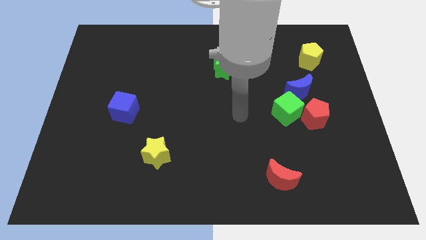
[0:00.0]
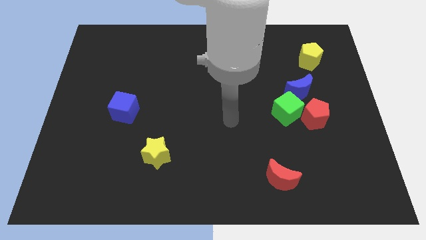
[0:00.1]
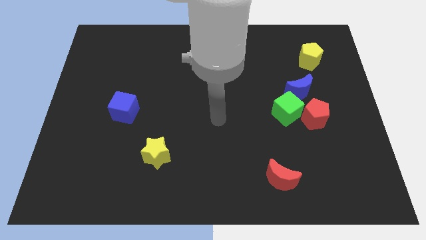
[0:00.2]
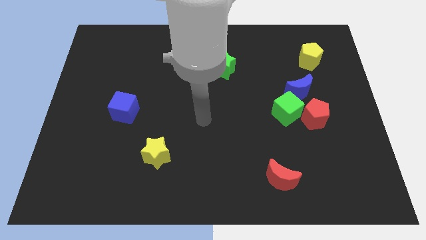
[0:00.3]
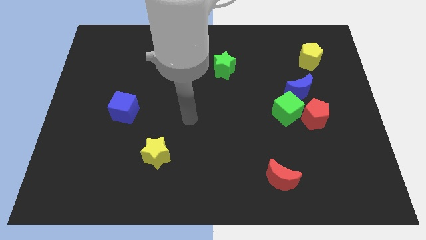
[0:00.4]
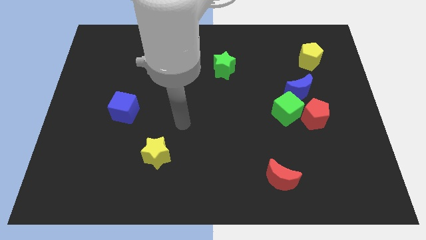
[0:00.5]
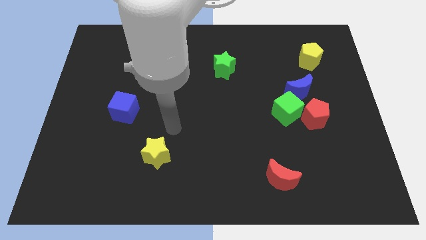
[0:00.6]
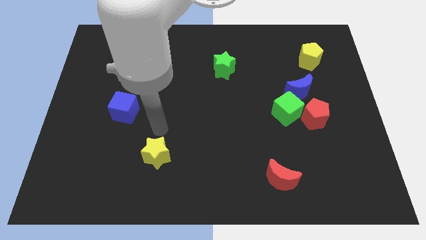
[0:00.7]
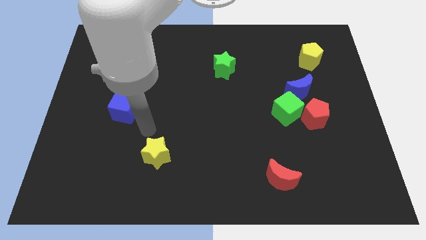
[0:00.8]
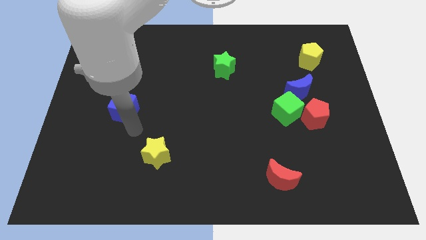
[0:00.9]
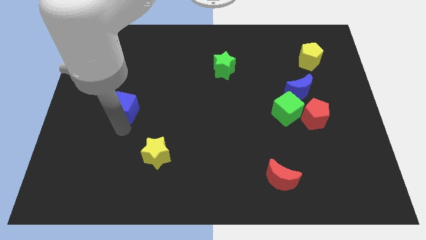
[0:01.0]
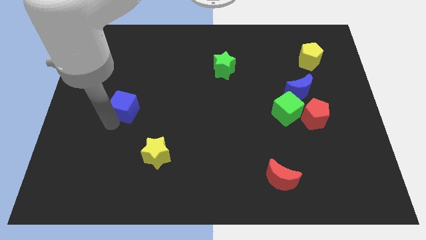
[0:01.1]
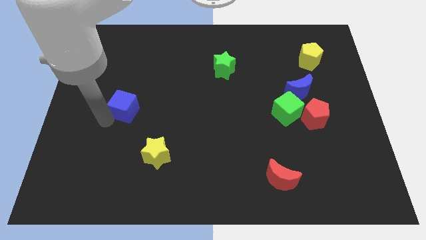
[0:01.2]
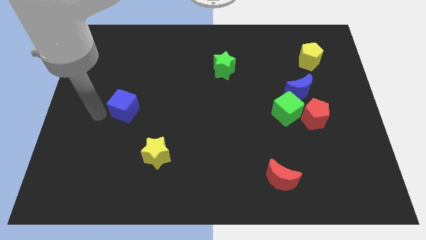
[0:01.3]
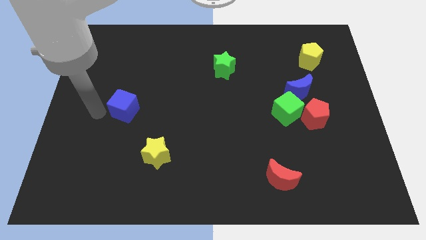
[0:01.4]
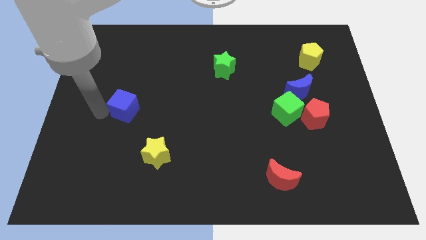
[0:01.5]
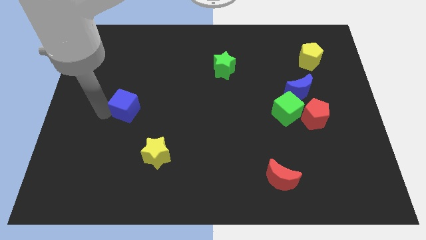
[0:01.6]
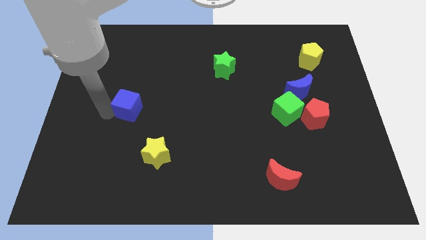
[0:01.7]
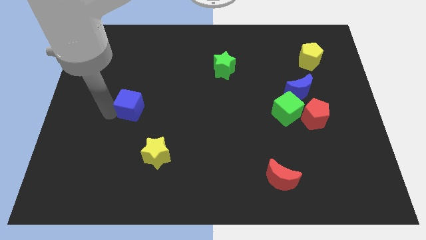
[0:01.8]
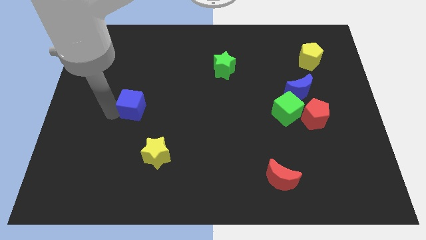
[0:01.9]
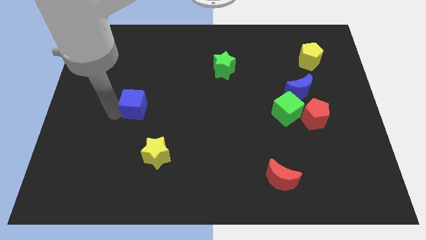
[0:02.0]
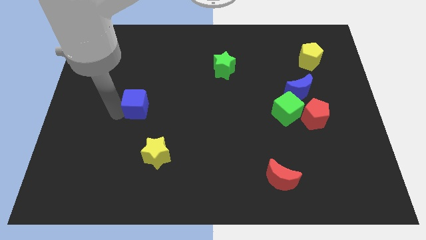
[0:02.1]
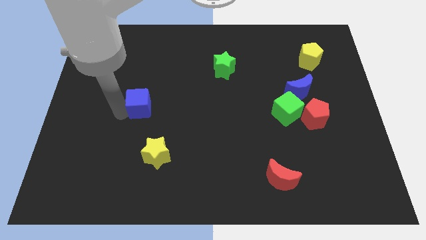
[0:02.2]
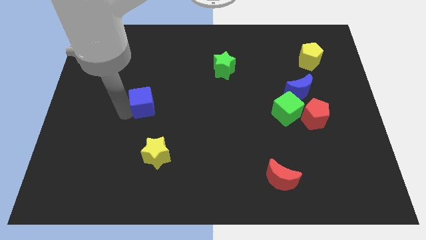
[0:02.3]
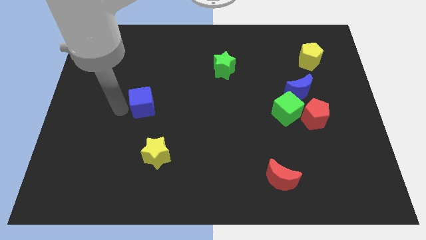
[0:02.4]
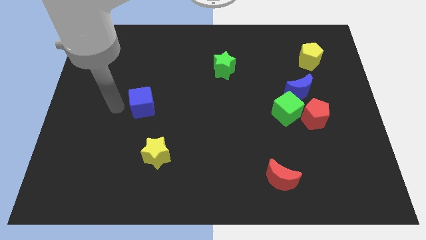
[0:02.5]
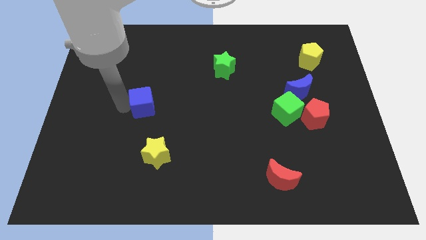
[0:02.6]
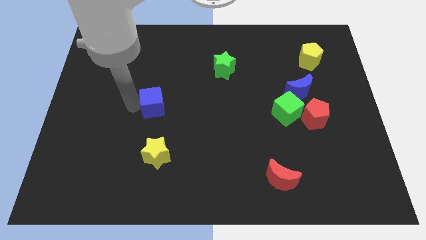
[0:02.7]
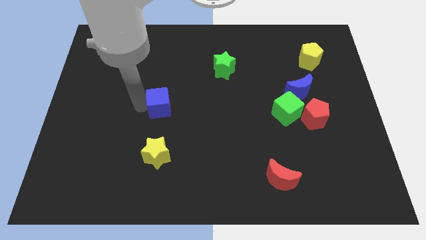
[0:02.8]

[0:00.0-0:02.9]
slide the blue cube to the right a little

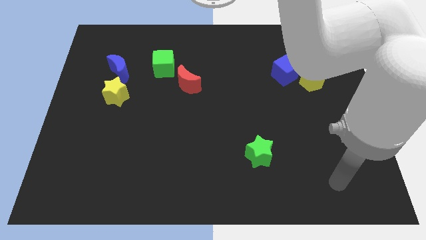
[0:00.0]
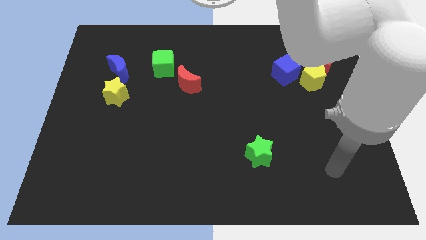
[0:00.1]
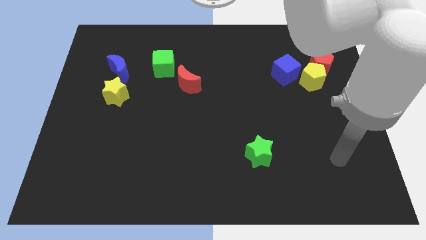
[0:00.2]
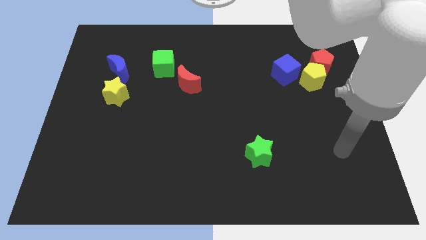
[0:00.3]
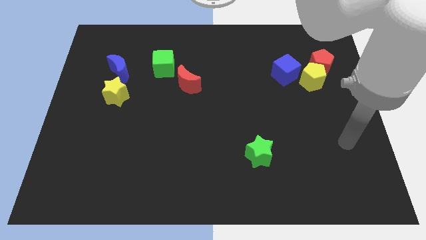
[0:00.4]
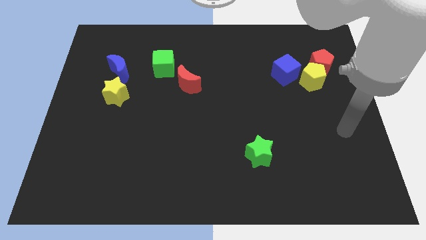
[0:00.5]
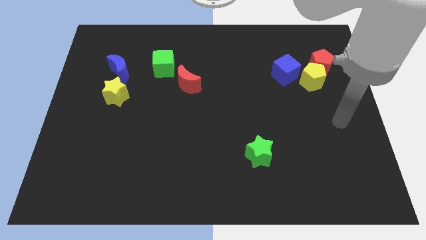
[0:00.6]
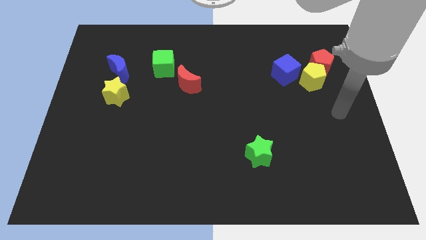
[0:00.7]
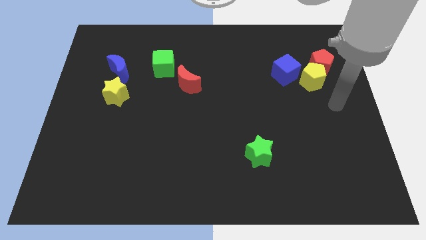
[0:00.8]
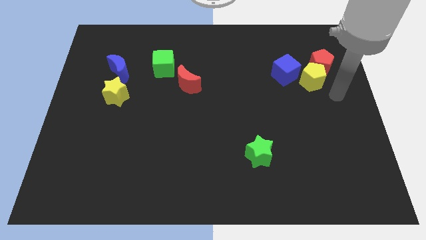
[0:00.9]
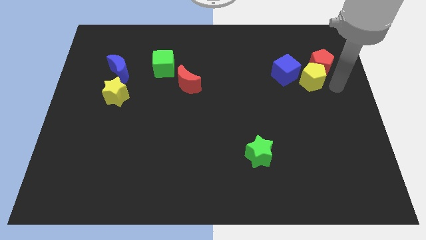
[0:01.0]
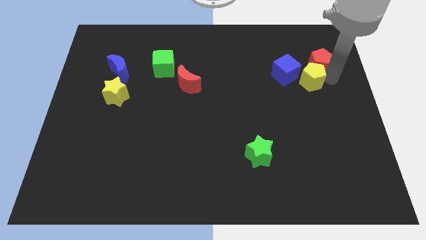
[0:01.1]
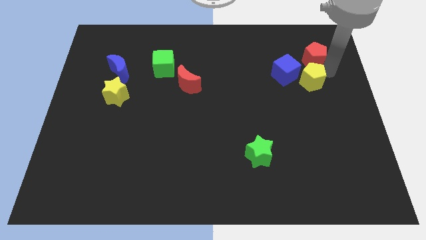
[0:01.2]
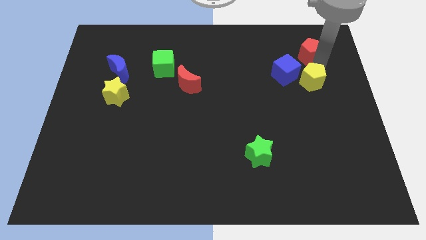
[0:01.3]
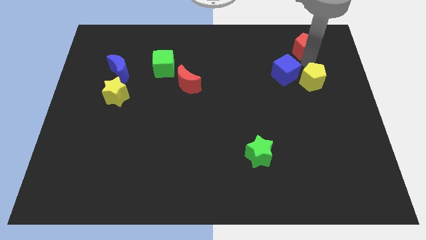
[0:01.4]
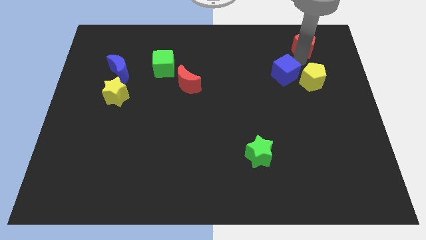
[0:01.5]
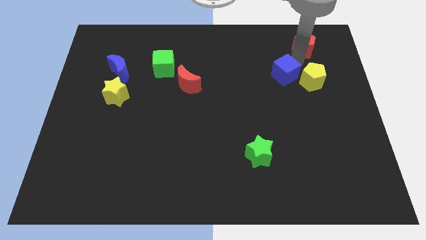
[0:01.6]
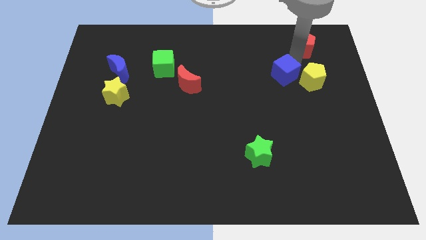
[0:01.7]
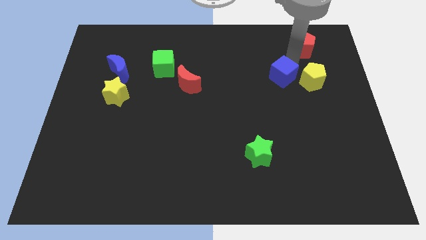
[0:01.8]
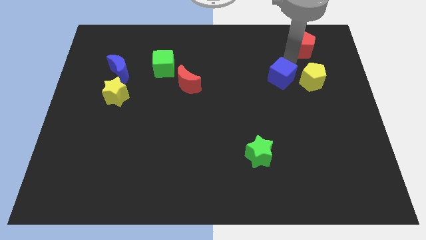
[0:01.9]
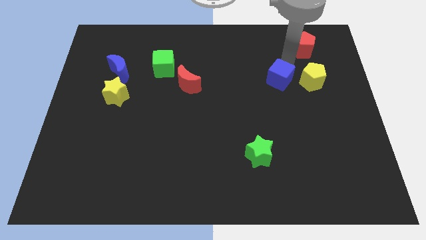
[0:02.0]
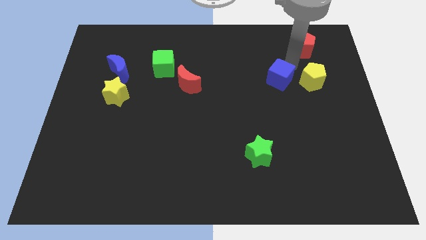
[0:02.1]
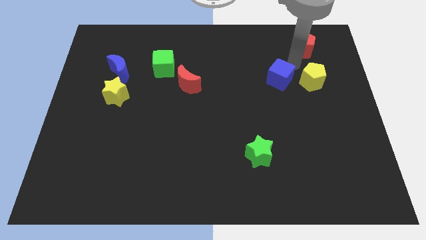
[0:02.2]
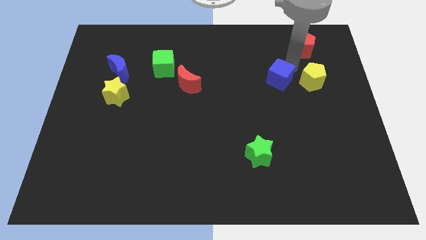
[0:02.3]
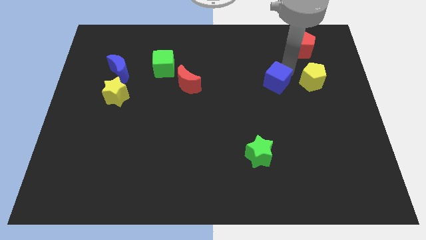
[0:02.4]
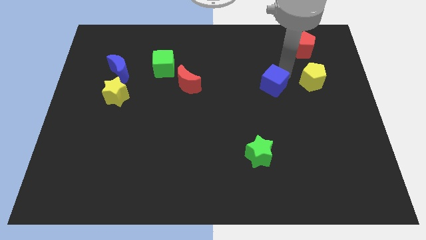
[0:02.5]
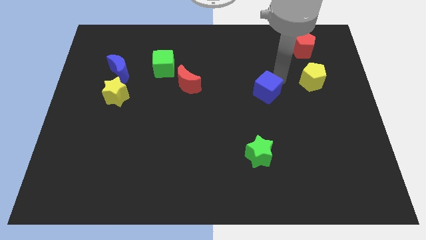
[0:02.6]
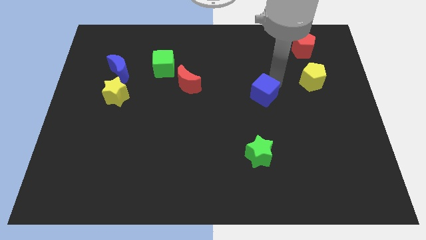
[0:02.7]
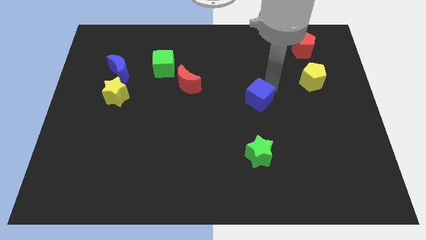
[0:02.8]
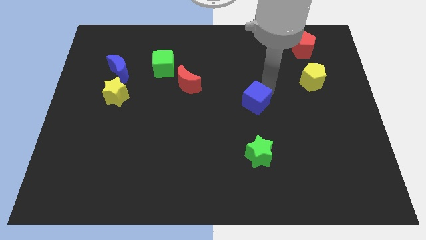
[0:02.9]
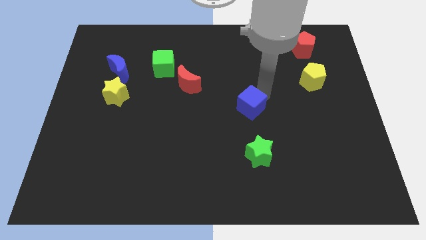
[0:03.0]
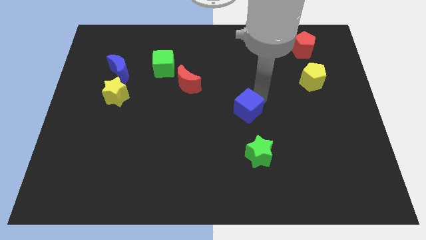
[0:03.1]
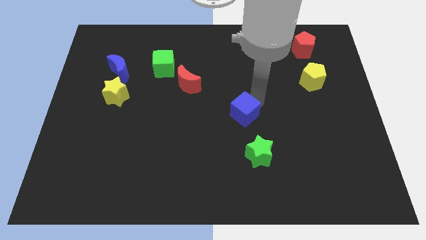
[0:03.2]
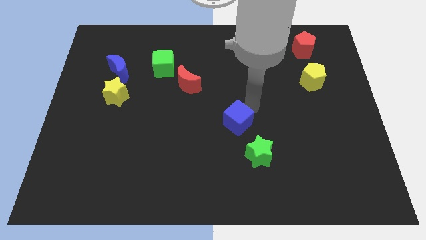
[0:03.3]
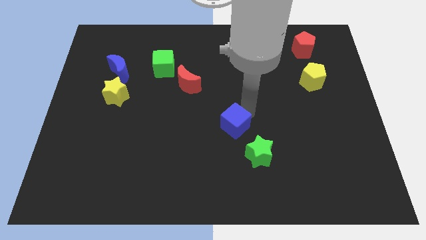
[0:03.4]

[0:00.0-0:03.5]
slide the blue cube downwards and to the left diagonally

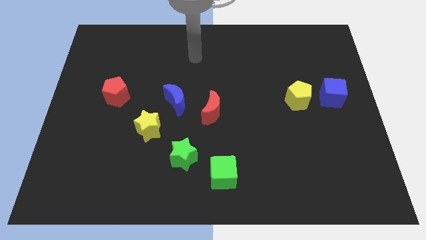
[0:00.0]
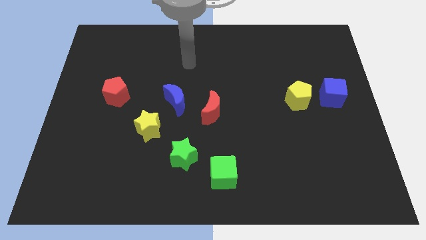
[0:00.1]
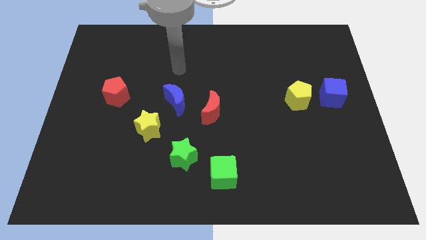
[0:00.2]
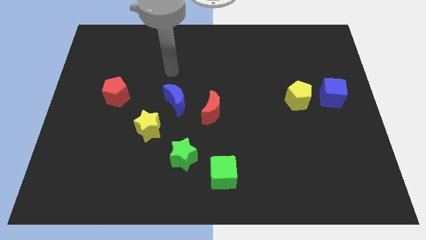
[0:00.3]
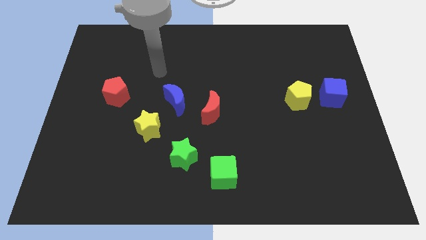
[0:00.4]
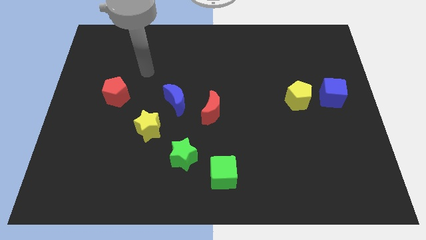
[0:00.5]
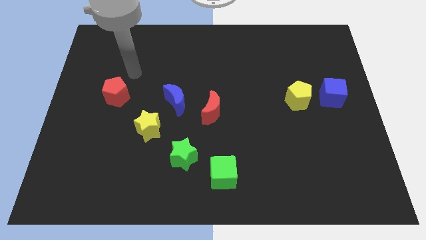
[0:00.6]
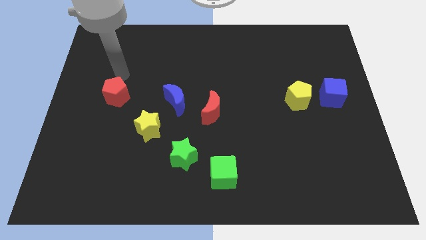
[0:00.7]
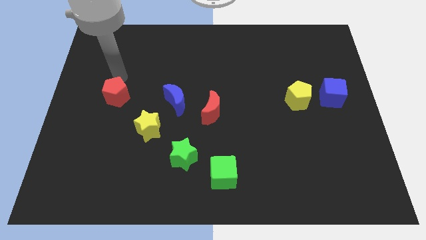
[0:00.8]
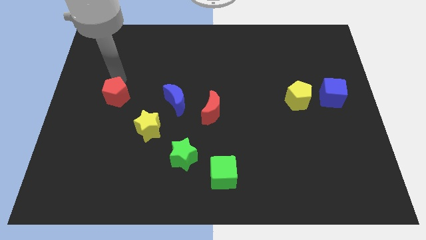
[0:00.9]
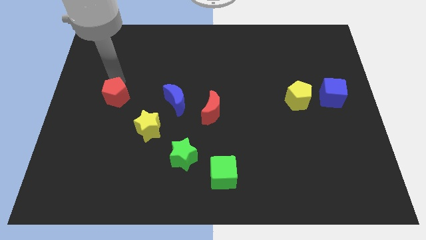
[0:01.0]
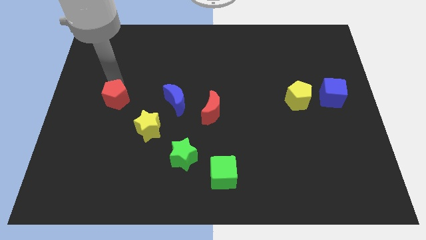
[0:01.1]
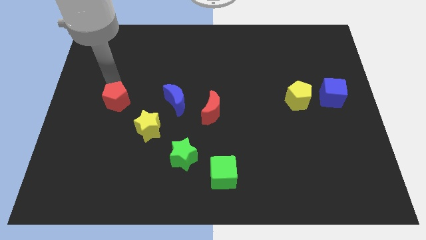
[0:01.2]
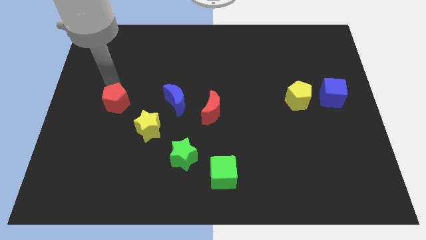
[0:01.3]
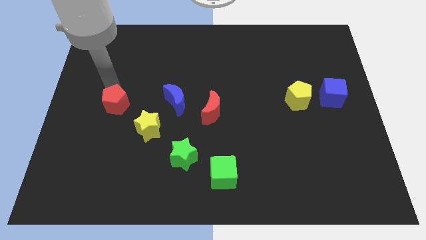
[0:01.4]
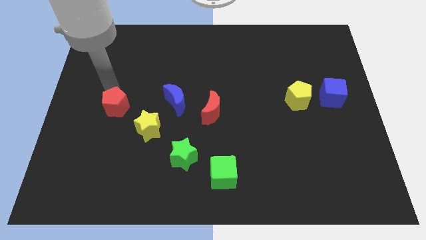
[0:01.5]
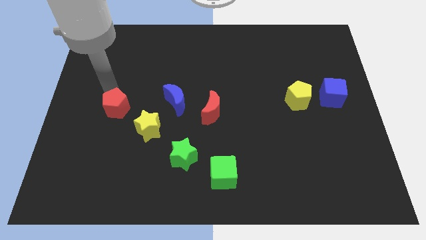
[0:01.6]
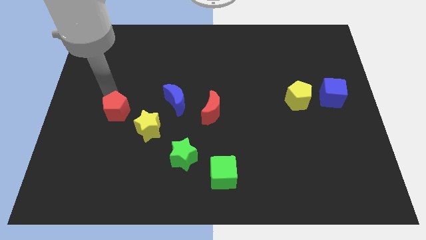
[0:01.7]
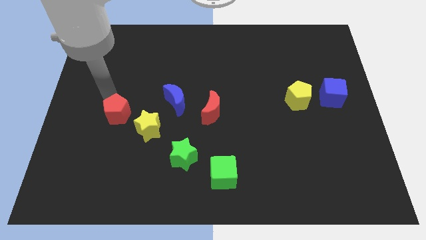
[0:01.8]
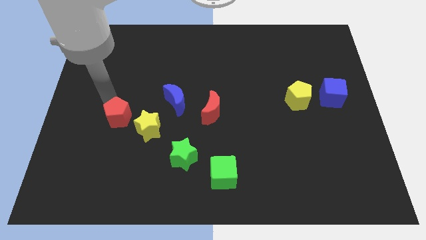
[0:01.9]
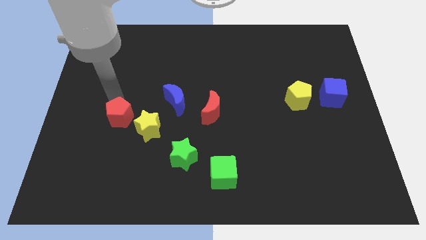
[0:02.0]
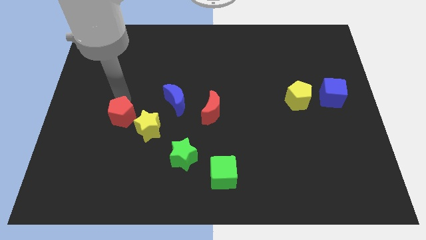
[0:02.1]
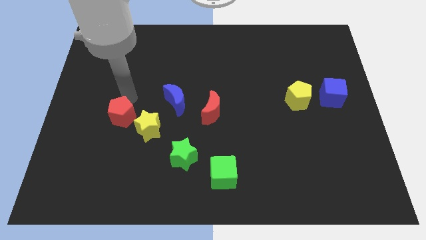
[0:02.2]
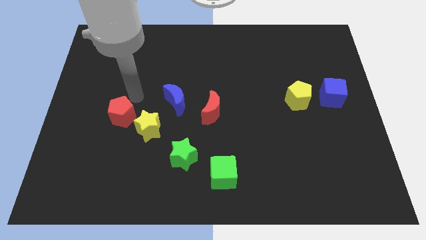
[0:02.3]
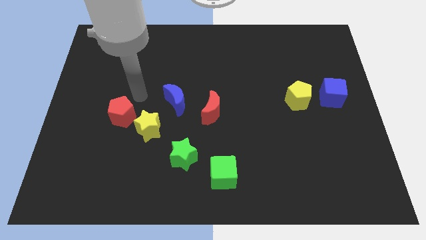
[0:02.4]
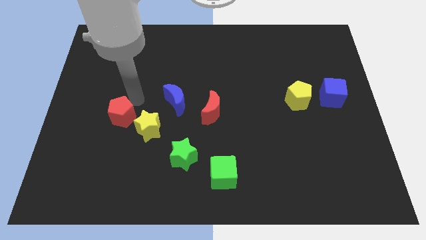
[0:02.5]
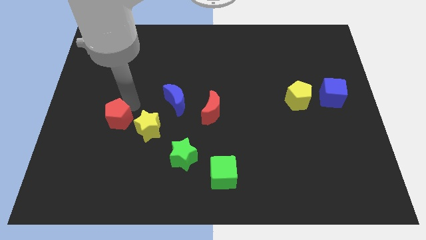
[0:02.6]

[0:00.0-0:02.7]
slightly push the red pentagon downwards
